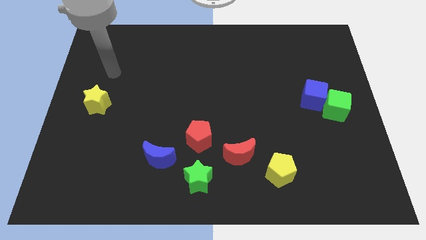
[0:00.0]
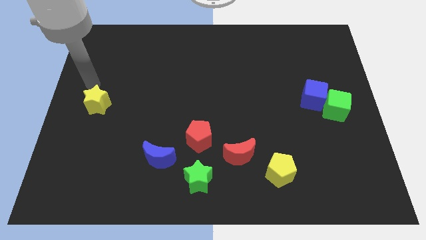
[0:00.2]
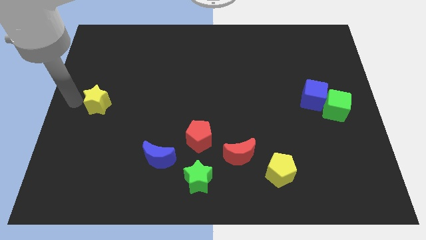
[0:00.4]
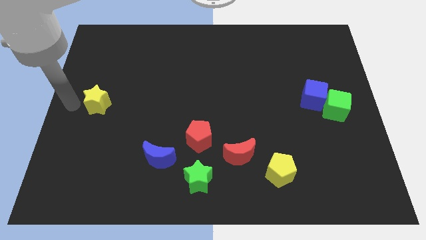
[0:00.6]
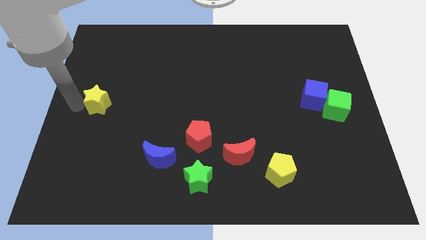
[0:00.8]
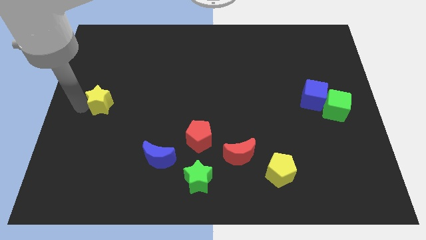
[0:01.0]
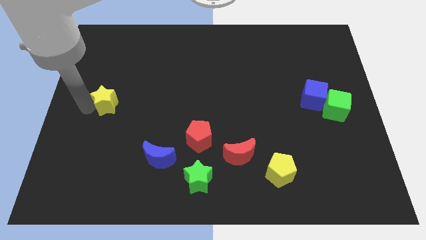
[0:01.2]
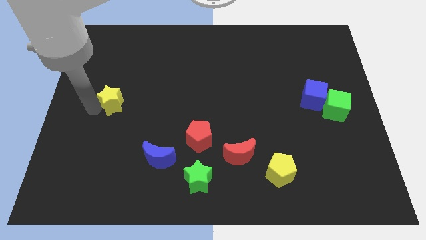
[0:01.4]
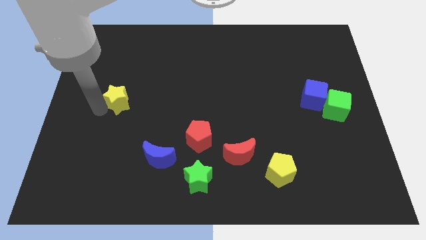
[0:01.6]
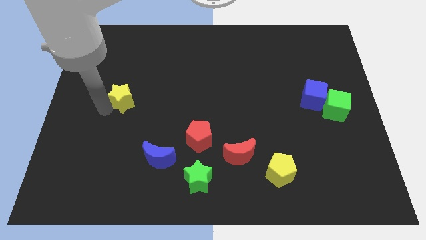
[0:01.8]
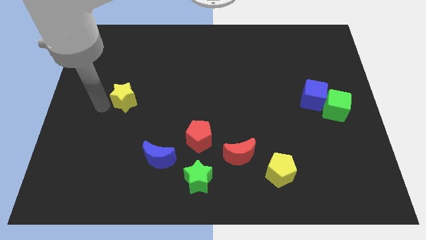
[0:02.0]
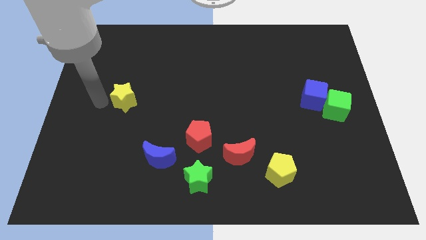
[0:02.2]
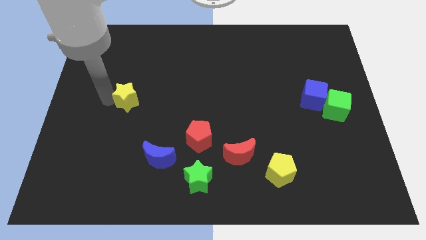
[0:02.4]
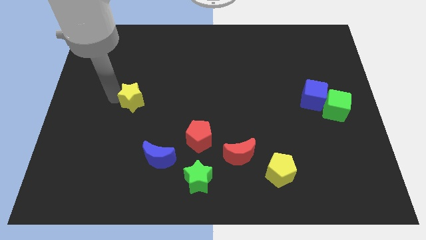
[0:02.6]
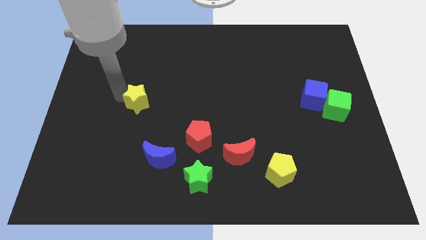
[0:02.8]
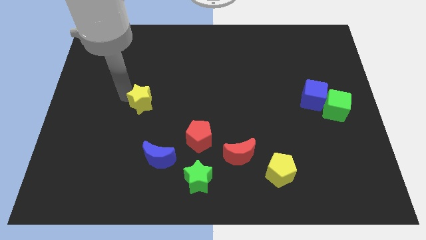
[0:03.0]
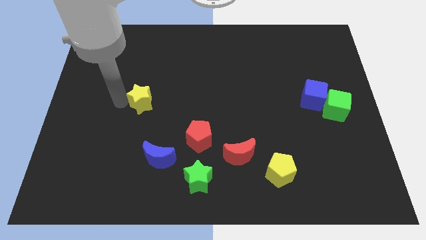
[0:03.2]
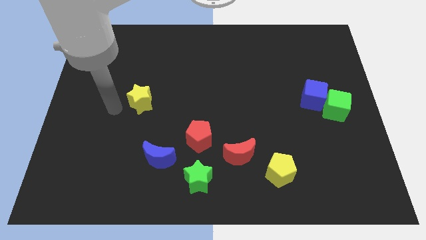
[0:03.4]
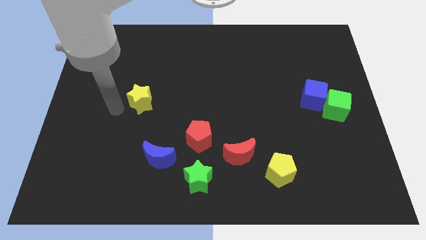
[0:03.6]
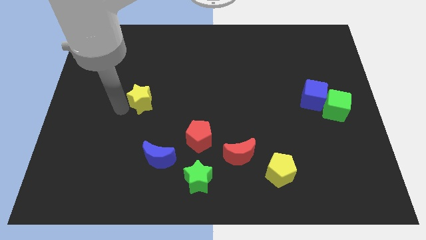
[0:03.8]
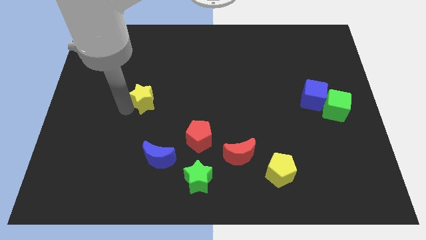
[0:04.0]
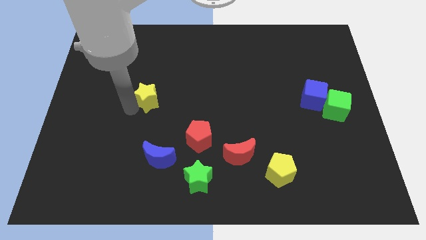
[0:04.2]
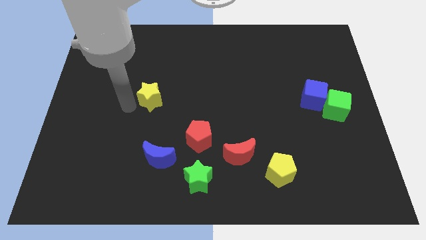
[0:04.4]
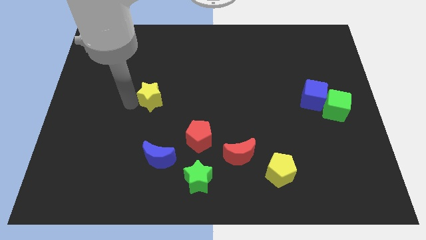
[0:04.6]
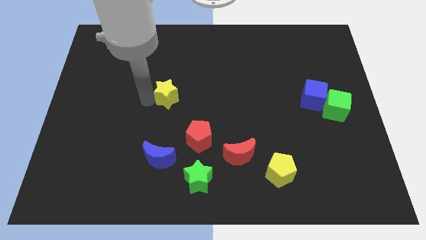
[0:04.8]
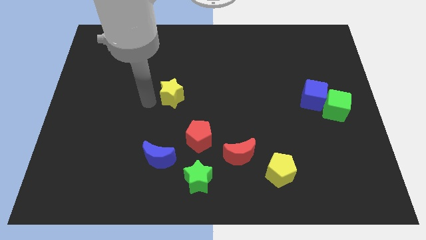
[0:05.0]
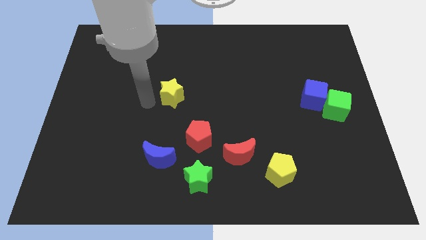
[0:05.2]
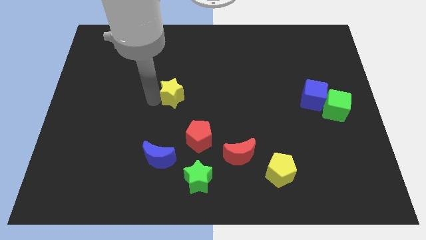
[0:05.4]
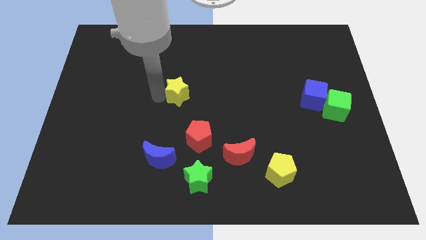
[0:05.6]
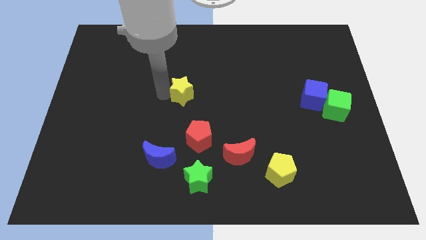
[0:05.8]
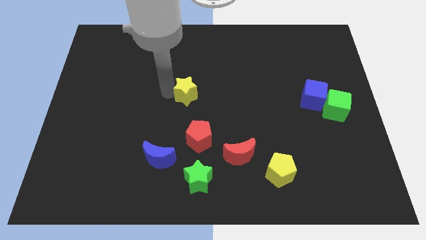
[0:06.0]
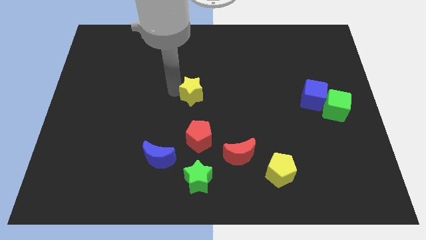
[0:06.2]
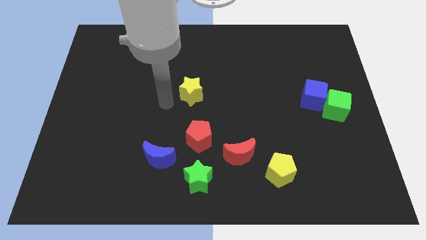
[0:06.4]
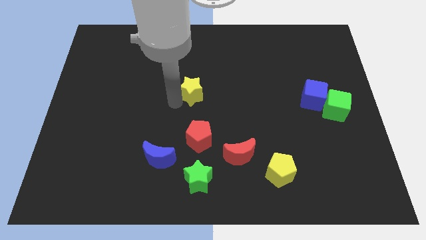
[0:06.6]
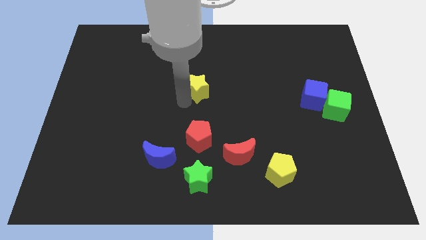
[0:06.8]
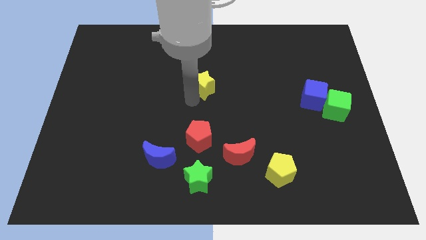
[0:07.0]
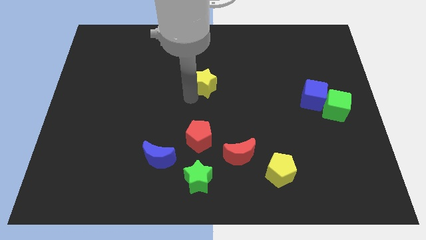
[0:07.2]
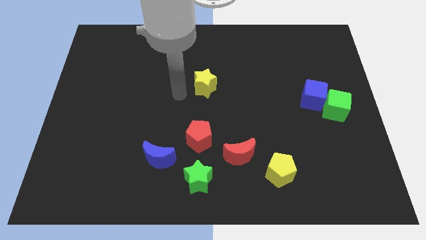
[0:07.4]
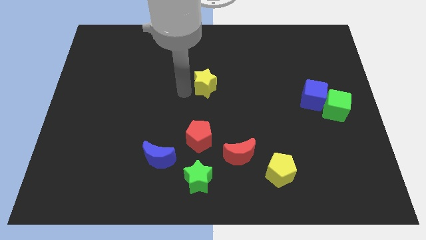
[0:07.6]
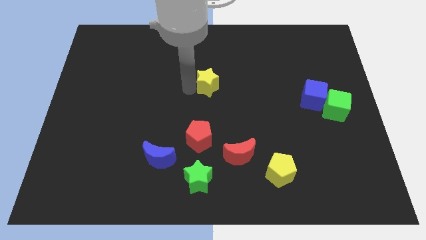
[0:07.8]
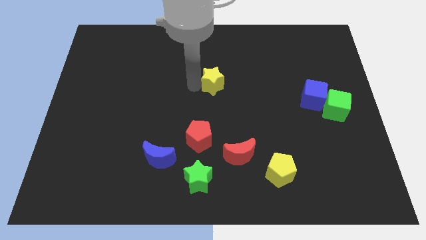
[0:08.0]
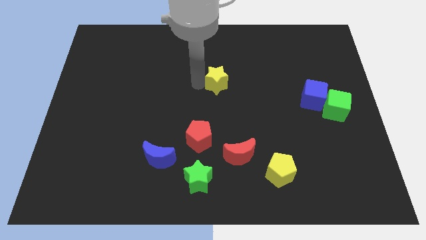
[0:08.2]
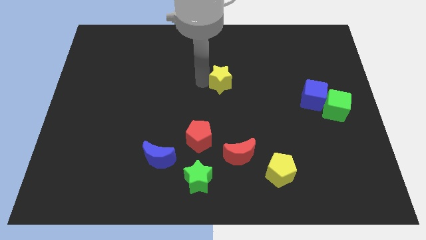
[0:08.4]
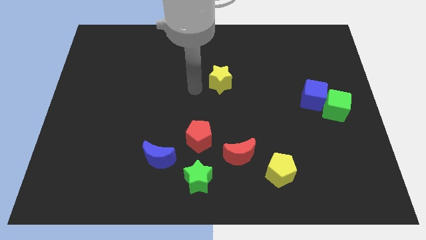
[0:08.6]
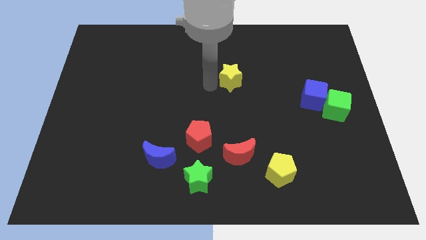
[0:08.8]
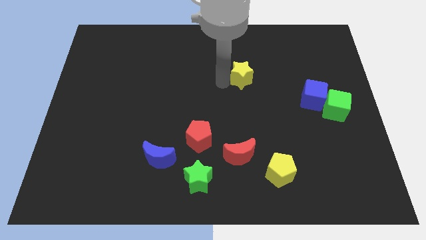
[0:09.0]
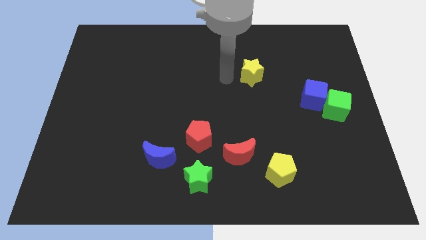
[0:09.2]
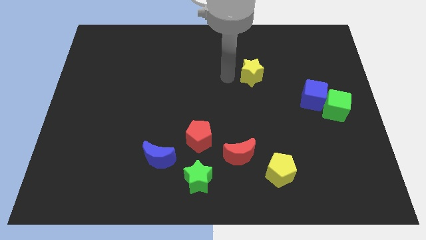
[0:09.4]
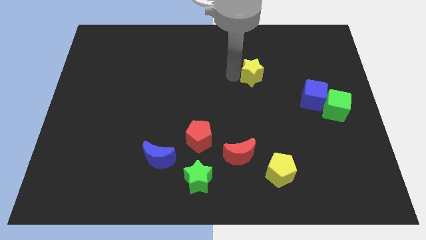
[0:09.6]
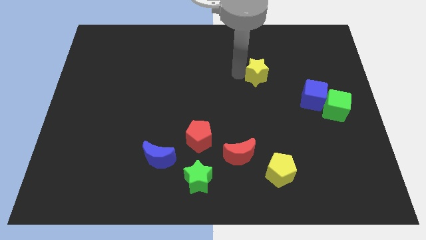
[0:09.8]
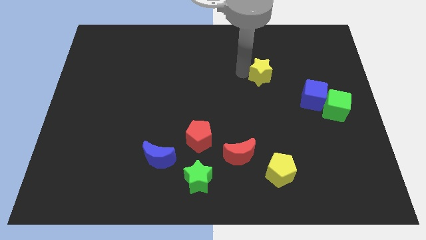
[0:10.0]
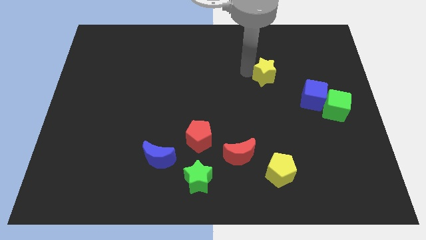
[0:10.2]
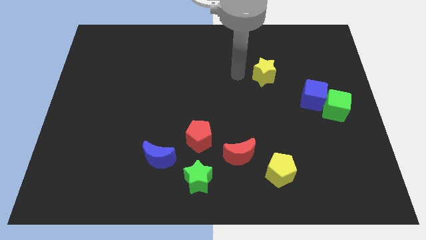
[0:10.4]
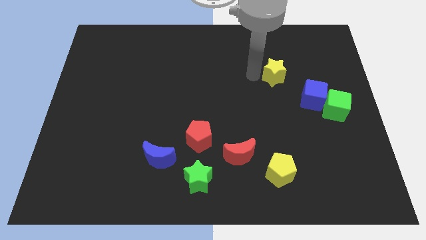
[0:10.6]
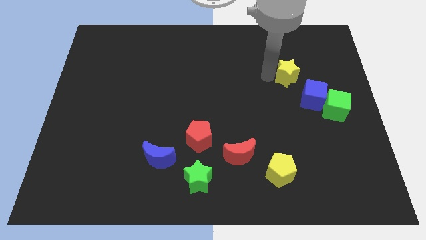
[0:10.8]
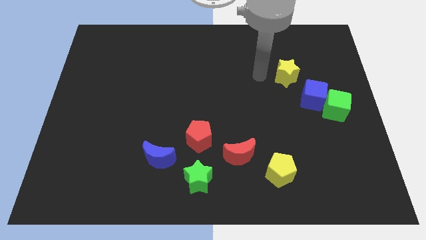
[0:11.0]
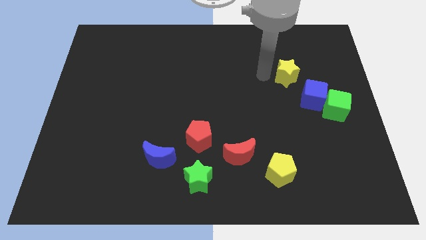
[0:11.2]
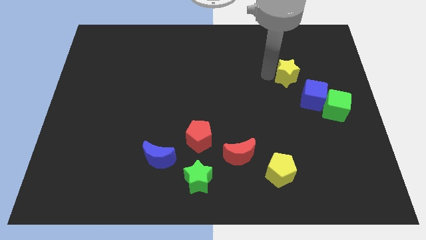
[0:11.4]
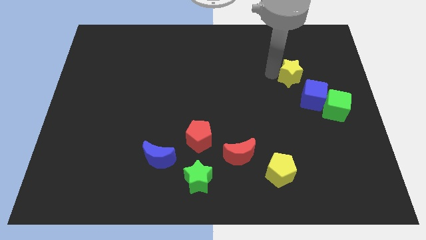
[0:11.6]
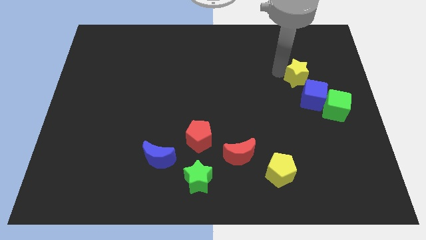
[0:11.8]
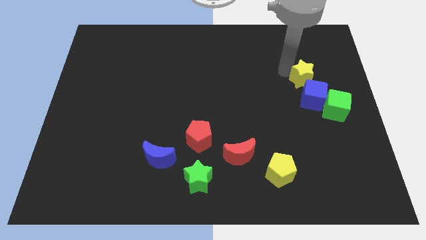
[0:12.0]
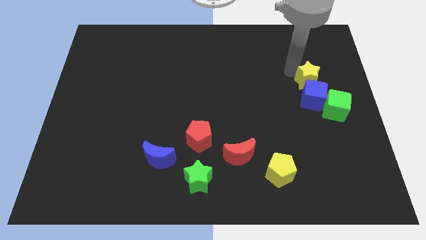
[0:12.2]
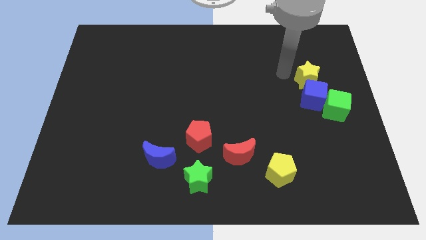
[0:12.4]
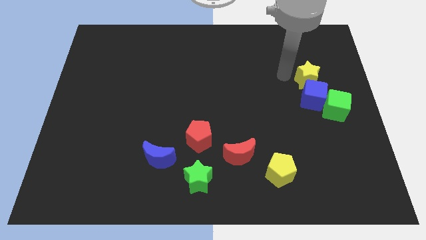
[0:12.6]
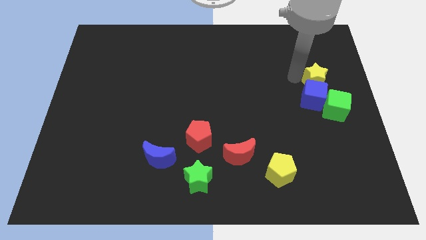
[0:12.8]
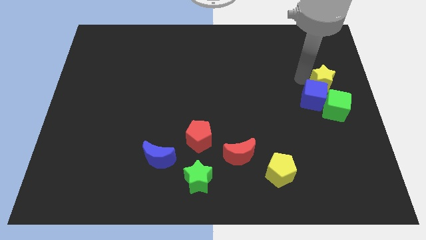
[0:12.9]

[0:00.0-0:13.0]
slide the yellow star to the right side
